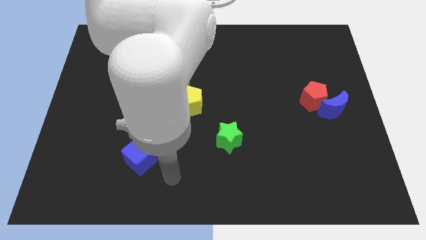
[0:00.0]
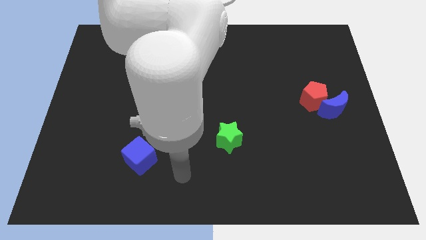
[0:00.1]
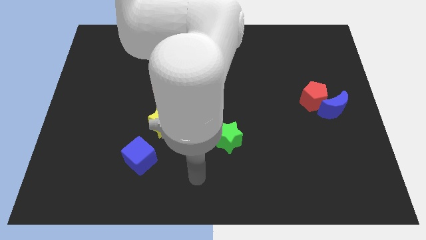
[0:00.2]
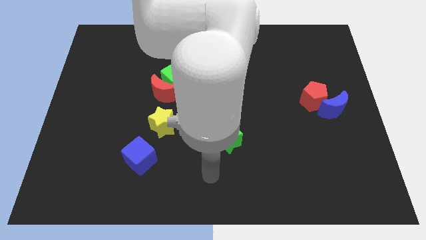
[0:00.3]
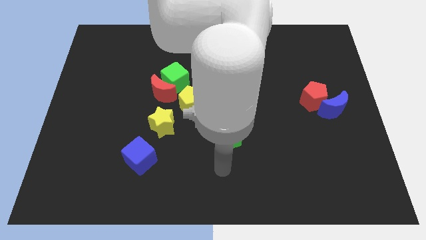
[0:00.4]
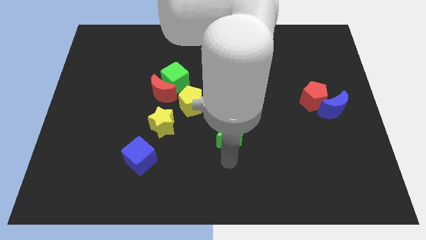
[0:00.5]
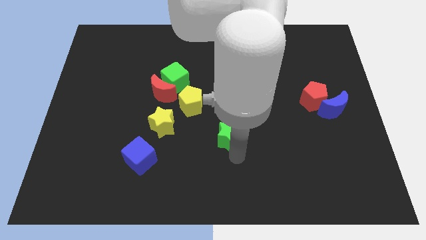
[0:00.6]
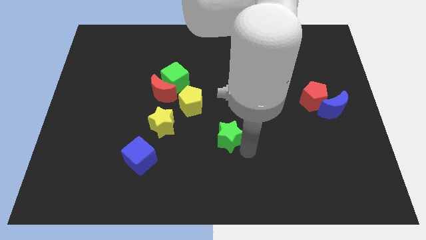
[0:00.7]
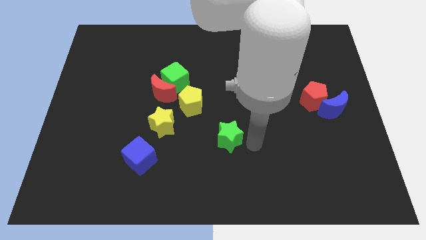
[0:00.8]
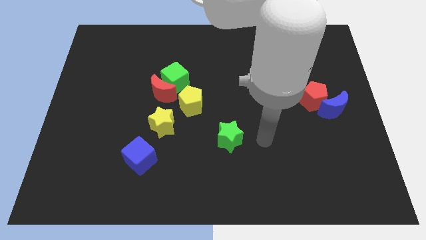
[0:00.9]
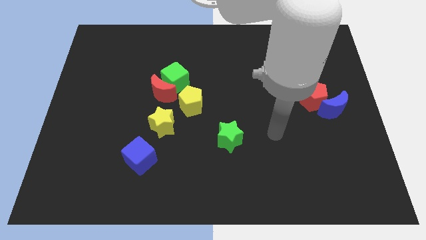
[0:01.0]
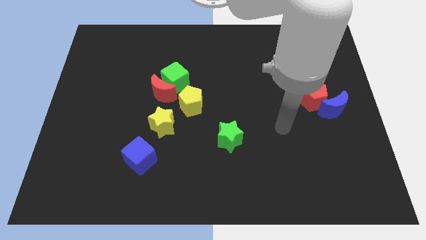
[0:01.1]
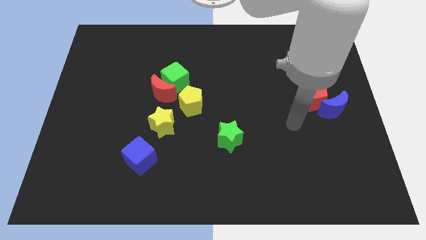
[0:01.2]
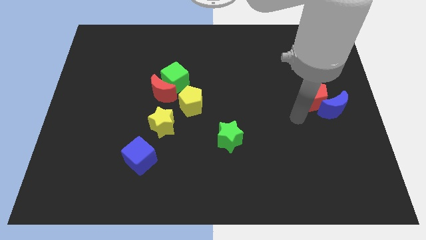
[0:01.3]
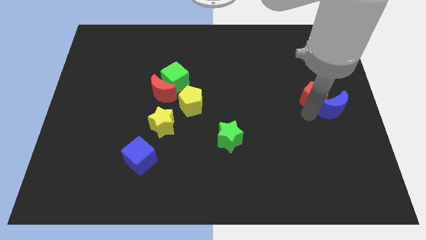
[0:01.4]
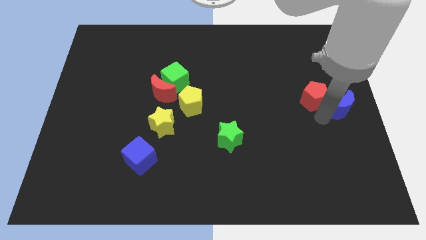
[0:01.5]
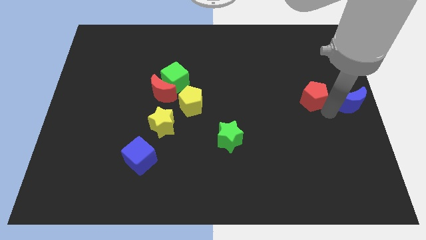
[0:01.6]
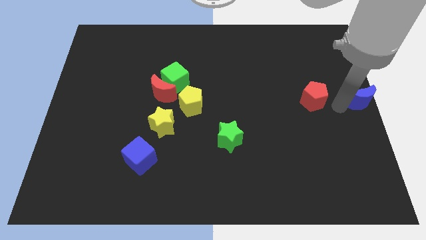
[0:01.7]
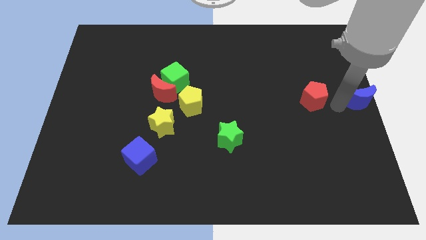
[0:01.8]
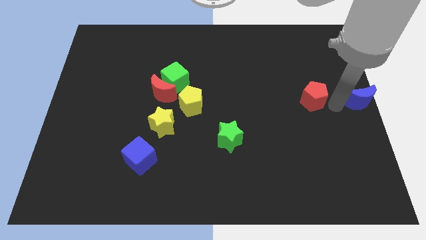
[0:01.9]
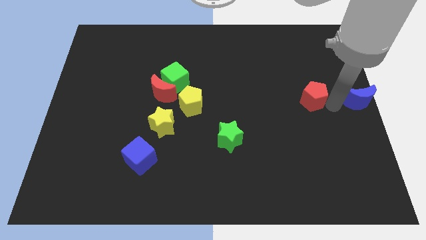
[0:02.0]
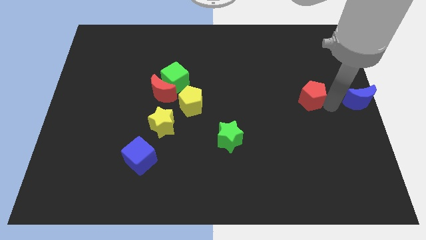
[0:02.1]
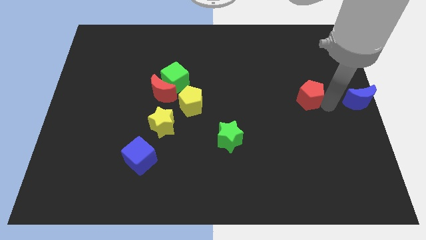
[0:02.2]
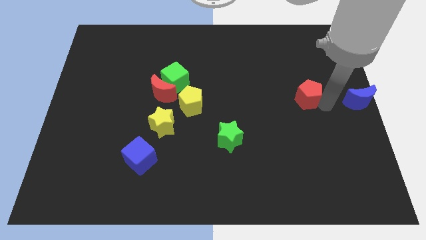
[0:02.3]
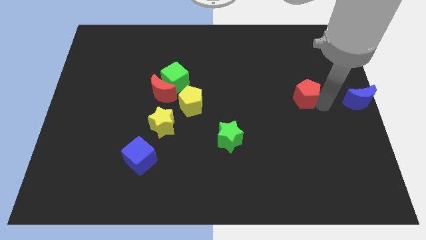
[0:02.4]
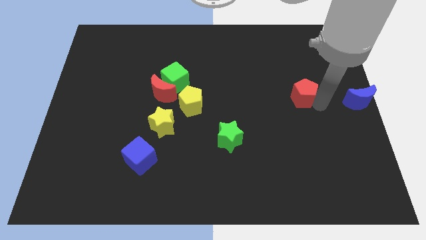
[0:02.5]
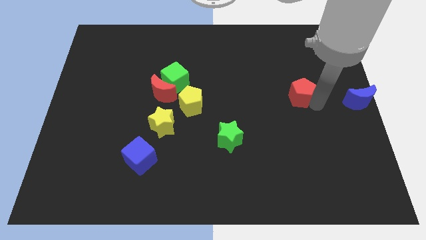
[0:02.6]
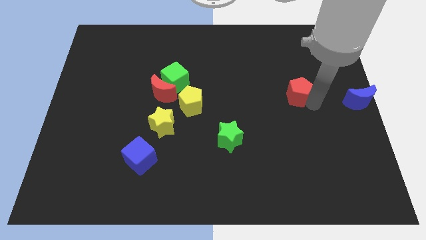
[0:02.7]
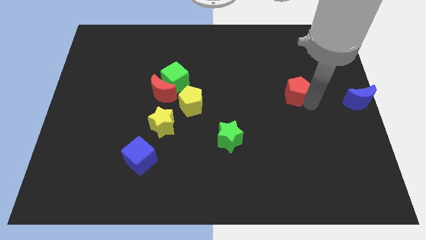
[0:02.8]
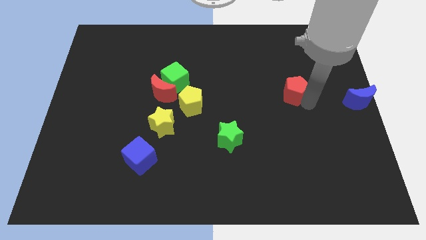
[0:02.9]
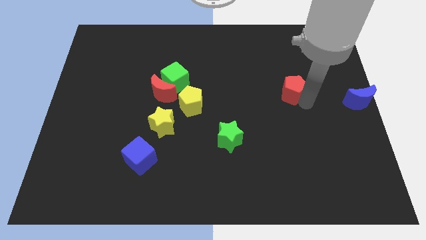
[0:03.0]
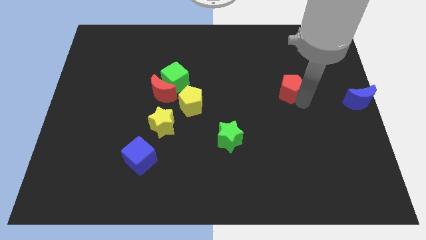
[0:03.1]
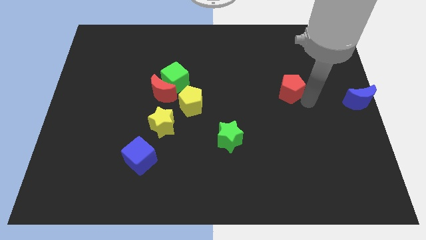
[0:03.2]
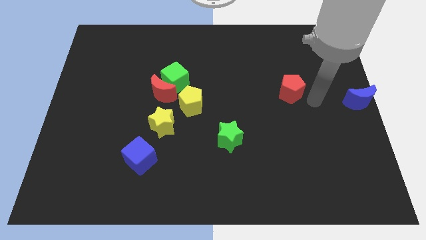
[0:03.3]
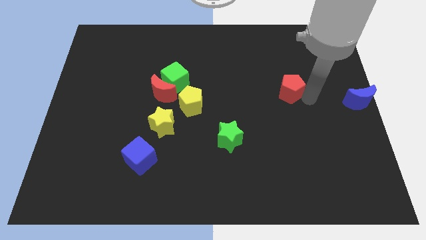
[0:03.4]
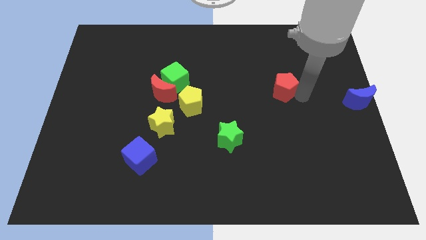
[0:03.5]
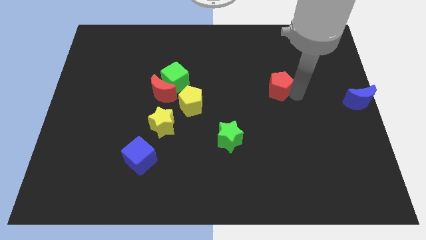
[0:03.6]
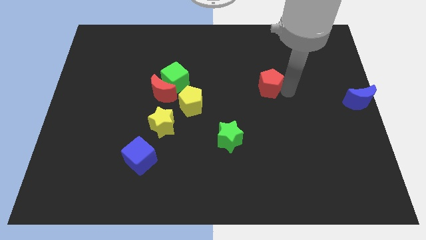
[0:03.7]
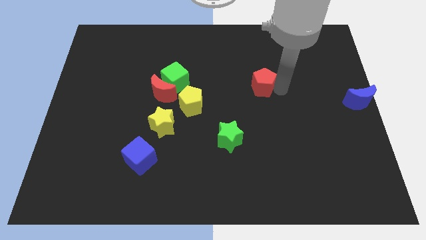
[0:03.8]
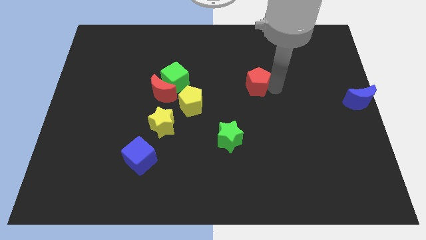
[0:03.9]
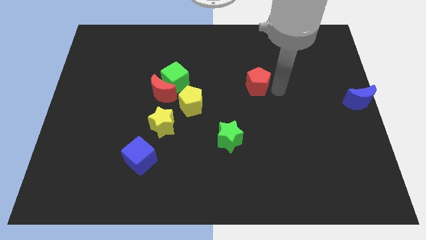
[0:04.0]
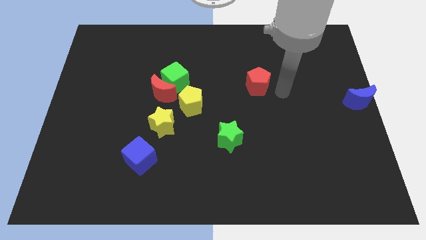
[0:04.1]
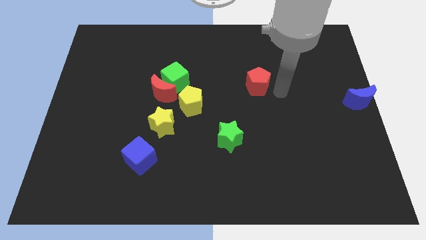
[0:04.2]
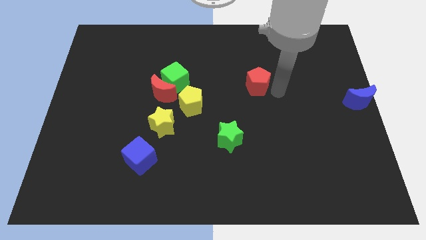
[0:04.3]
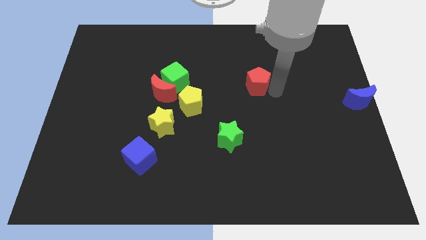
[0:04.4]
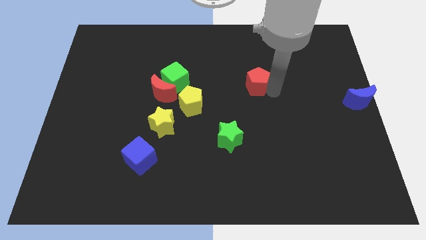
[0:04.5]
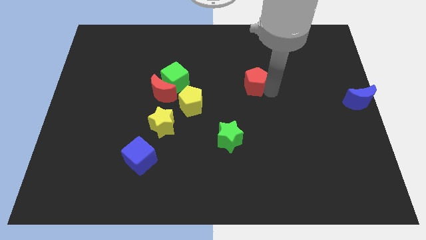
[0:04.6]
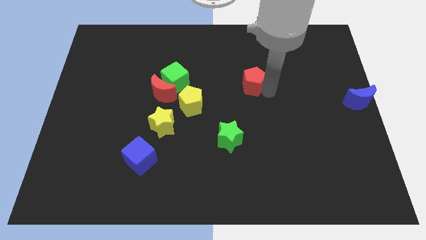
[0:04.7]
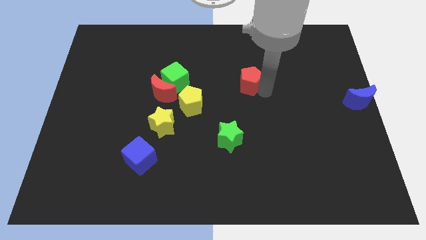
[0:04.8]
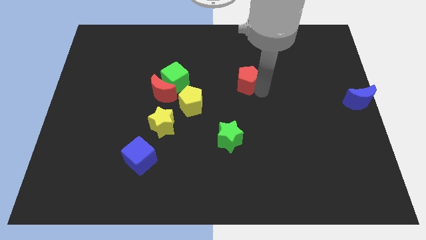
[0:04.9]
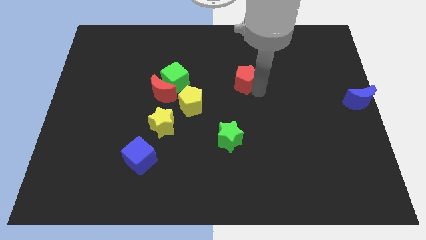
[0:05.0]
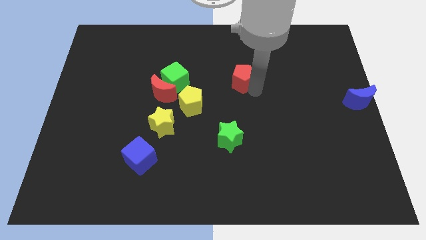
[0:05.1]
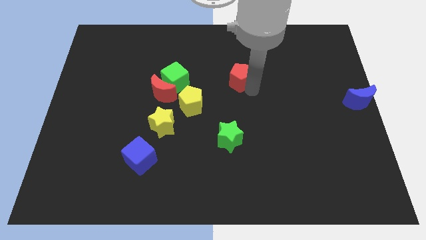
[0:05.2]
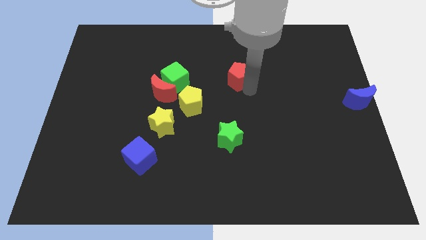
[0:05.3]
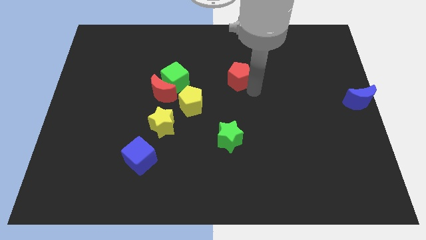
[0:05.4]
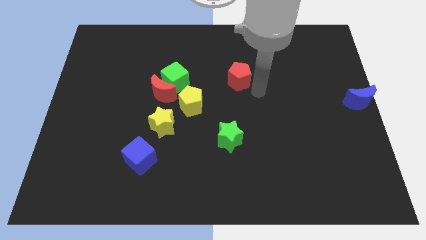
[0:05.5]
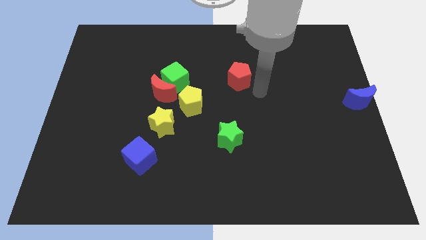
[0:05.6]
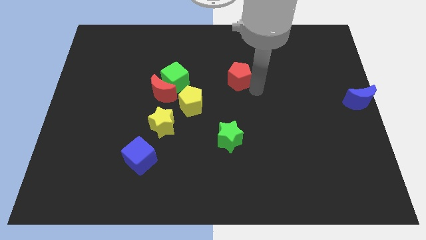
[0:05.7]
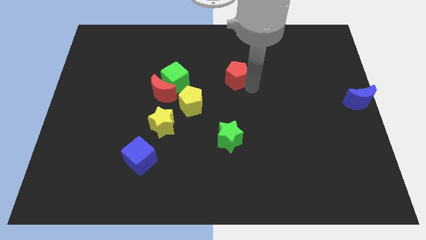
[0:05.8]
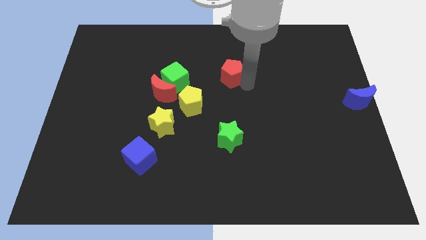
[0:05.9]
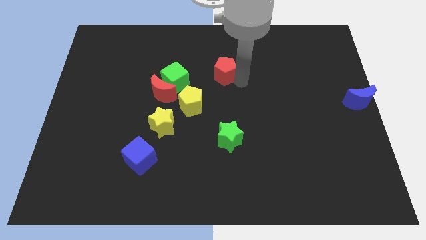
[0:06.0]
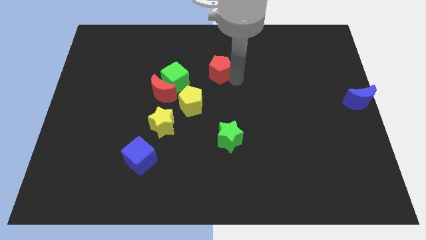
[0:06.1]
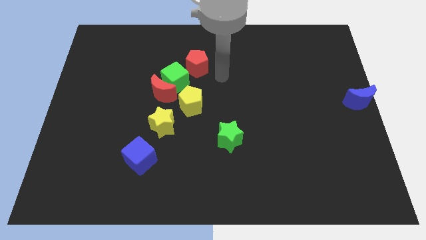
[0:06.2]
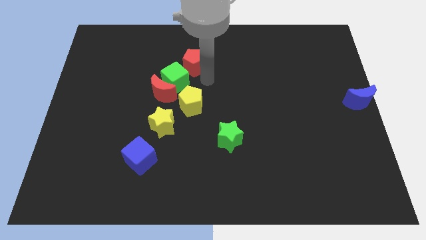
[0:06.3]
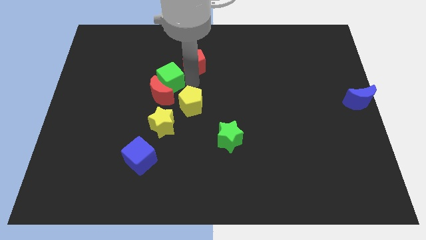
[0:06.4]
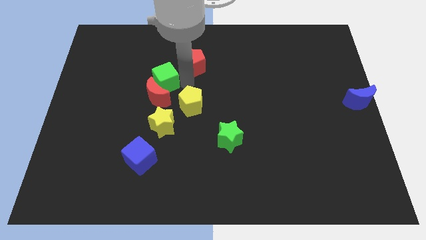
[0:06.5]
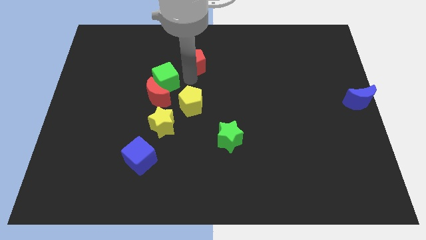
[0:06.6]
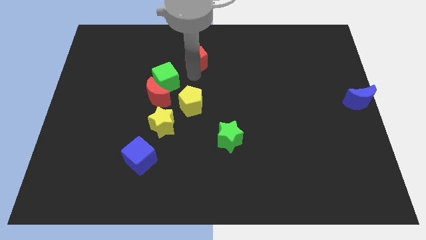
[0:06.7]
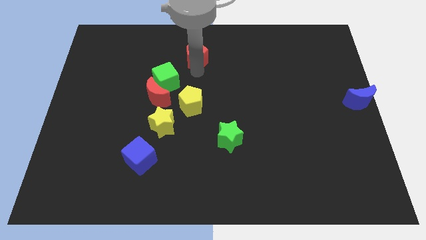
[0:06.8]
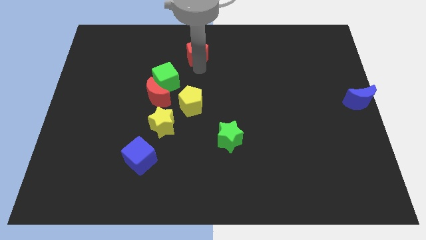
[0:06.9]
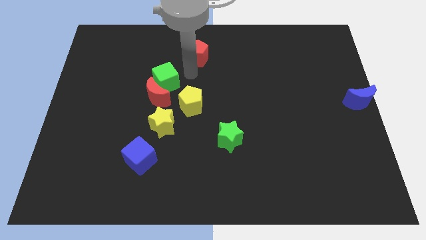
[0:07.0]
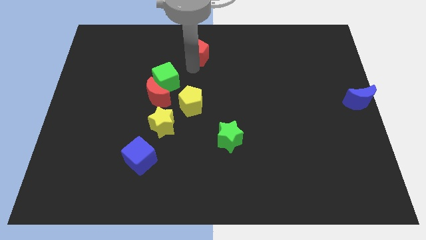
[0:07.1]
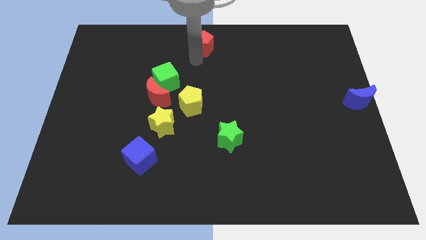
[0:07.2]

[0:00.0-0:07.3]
move the red pentagon to the top side
